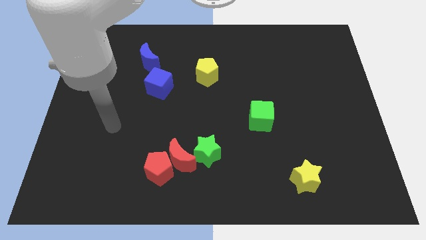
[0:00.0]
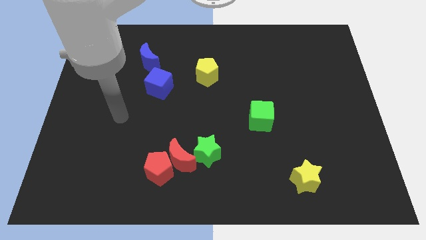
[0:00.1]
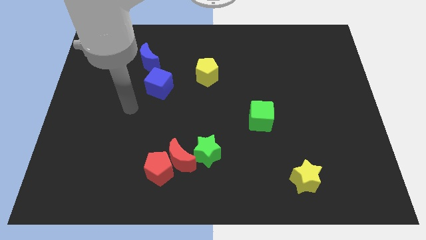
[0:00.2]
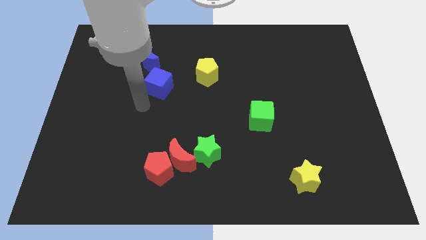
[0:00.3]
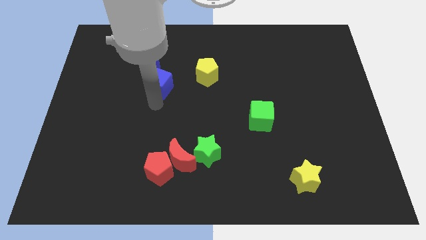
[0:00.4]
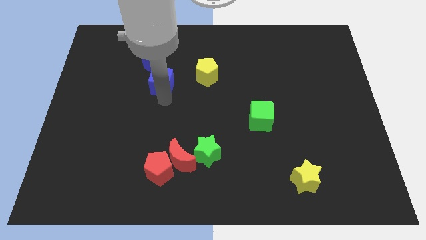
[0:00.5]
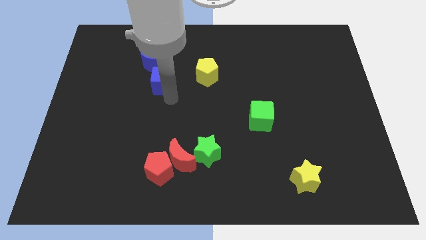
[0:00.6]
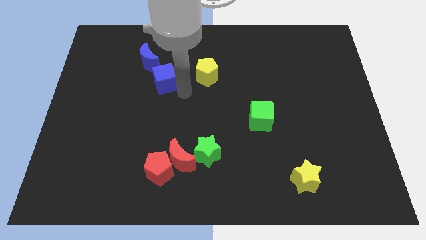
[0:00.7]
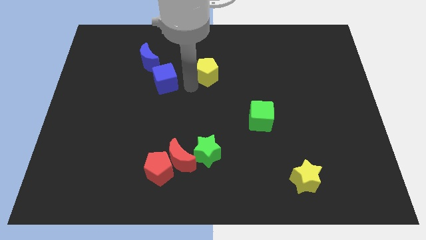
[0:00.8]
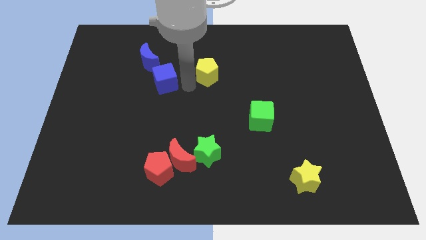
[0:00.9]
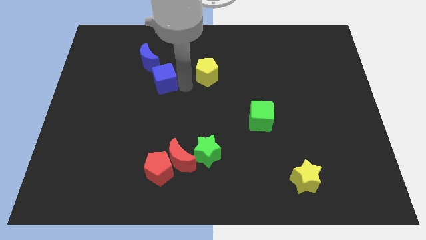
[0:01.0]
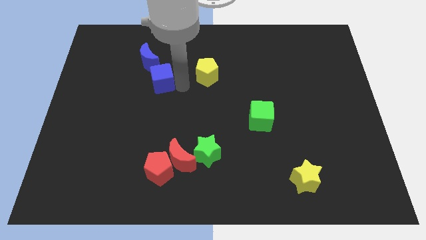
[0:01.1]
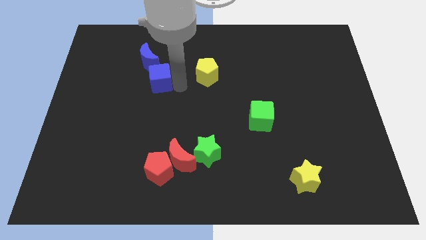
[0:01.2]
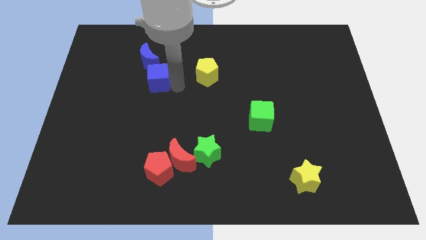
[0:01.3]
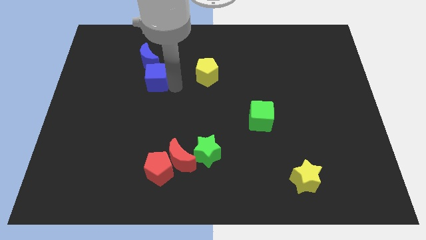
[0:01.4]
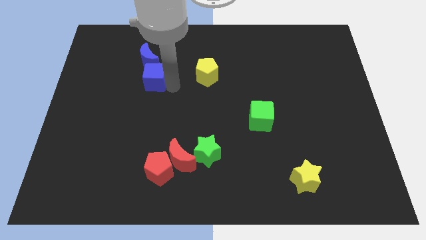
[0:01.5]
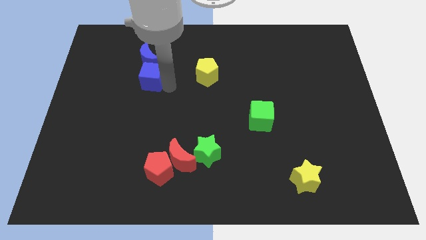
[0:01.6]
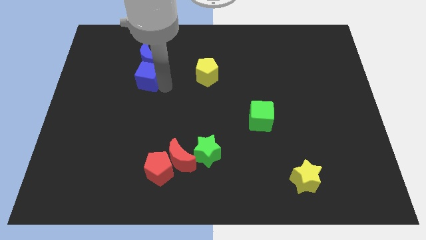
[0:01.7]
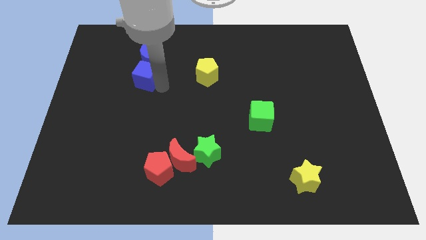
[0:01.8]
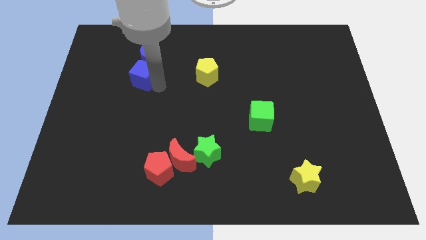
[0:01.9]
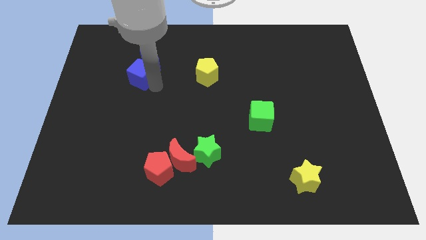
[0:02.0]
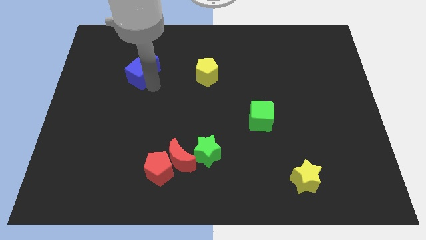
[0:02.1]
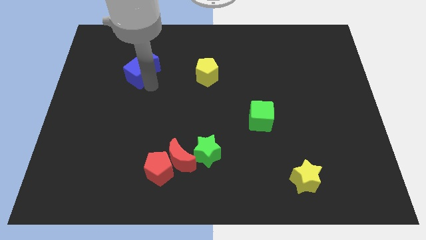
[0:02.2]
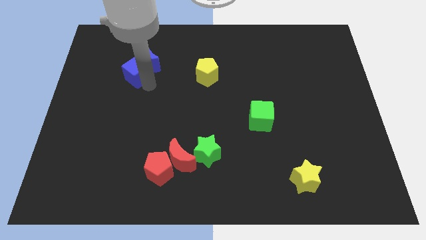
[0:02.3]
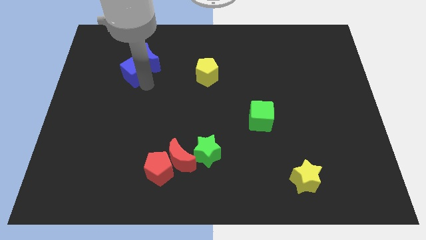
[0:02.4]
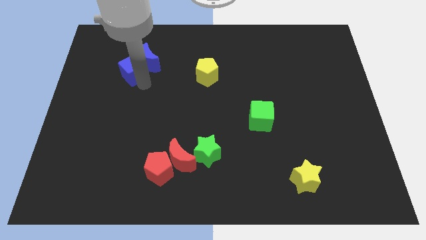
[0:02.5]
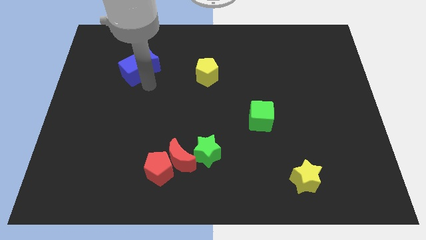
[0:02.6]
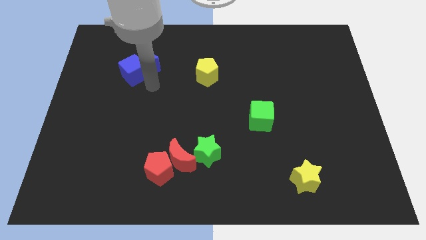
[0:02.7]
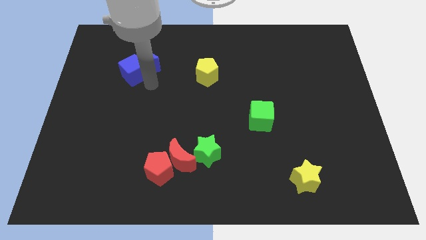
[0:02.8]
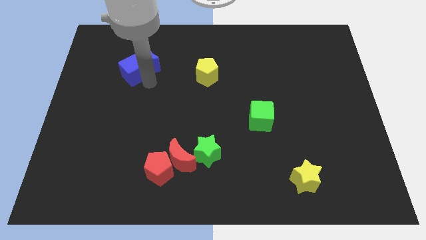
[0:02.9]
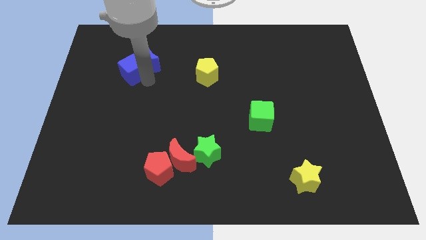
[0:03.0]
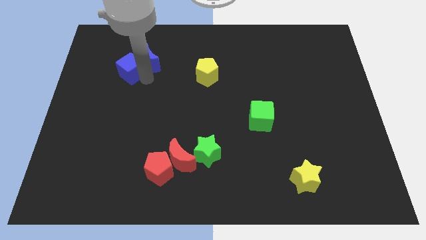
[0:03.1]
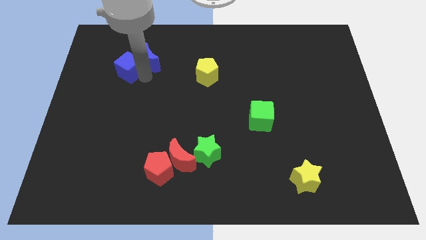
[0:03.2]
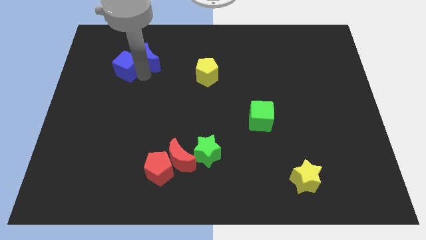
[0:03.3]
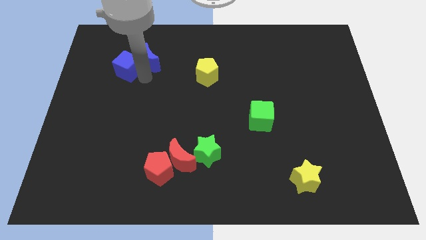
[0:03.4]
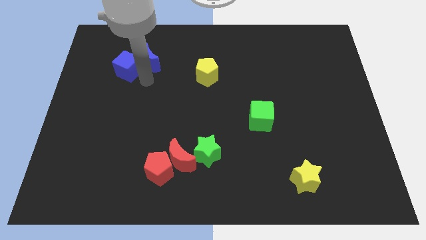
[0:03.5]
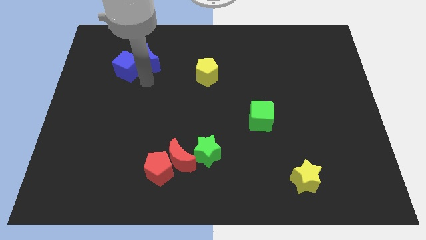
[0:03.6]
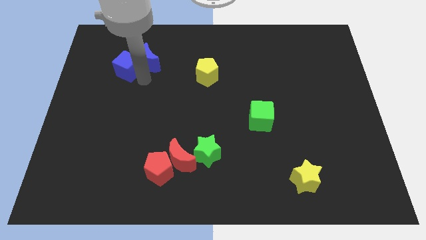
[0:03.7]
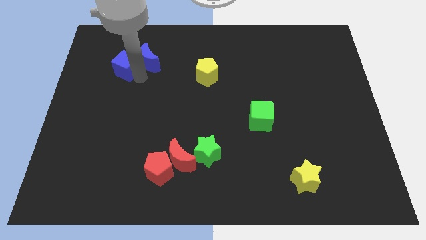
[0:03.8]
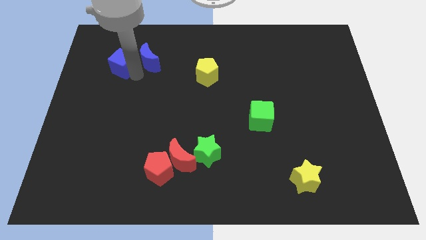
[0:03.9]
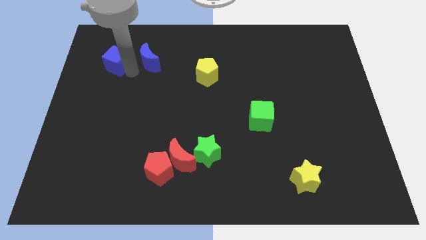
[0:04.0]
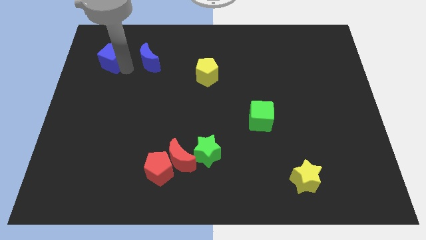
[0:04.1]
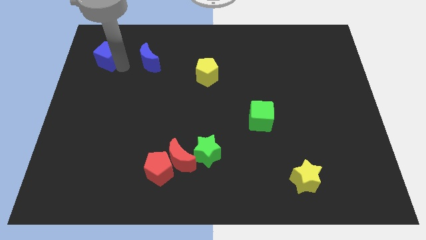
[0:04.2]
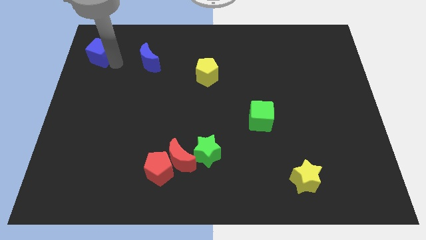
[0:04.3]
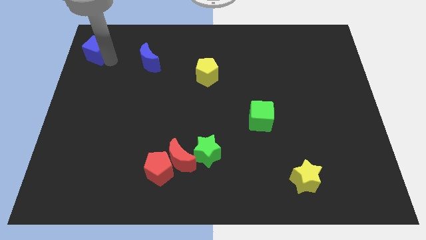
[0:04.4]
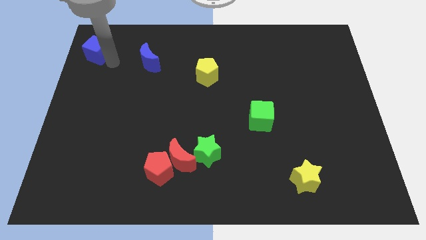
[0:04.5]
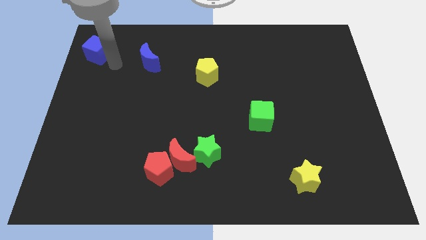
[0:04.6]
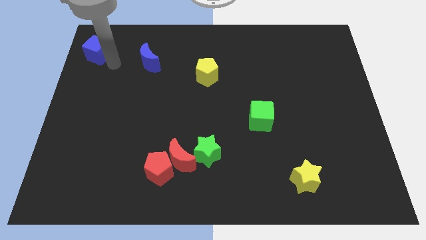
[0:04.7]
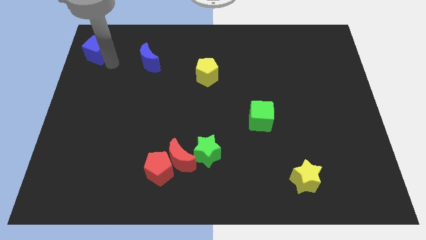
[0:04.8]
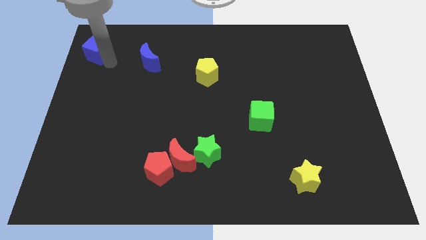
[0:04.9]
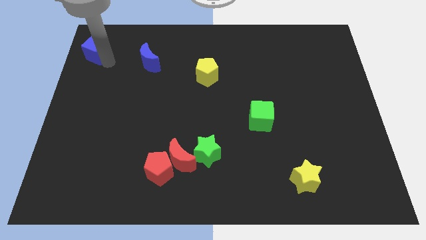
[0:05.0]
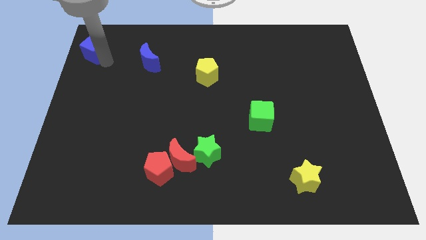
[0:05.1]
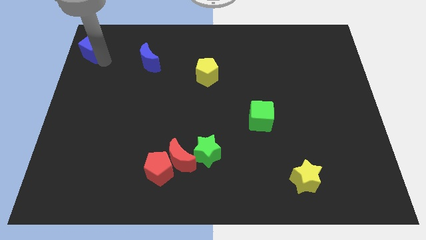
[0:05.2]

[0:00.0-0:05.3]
move the blue cube to the top left of the board

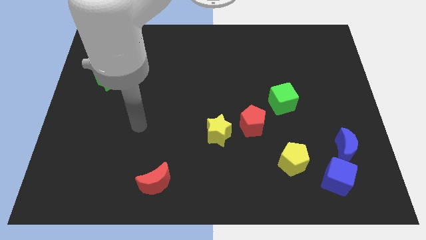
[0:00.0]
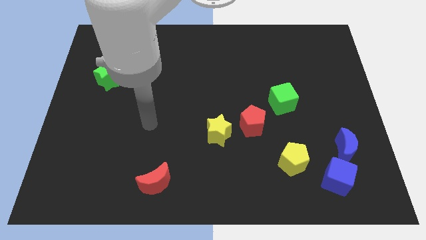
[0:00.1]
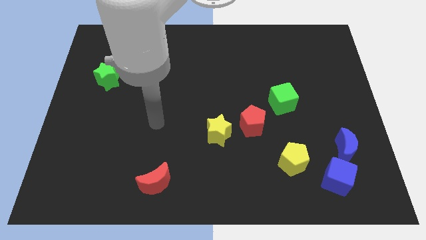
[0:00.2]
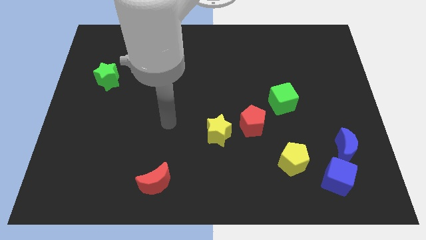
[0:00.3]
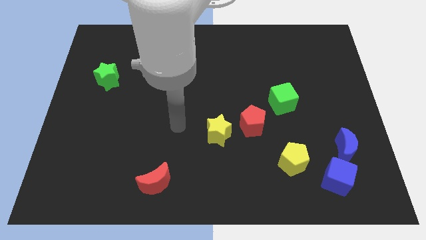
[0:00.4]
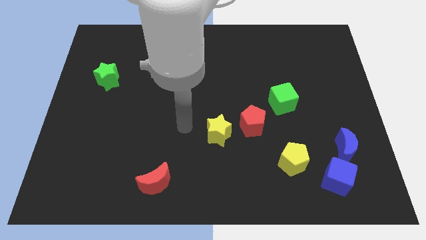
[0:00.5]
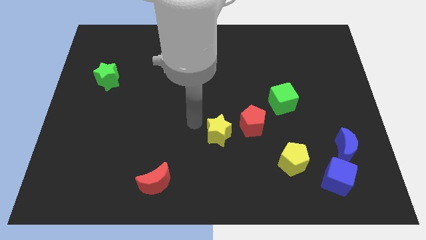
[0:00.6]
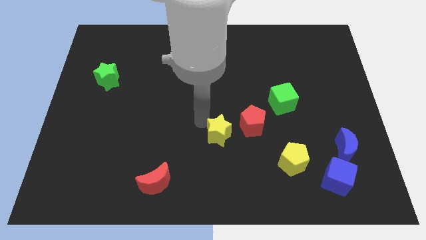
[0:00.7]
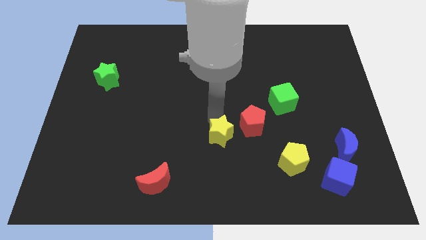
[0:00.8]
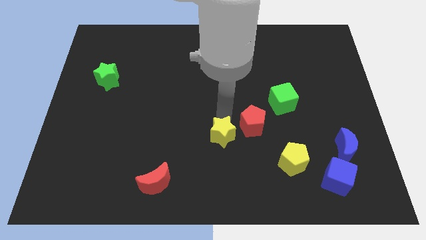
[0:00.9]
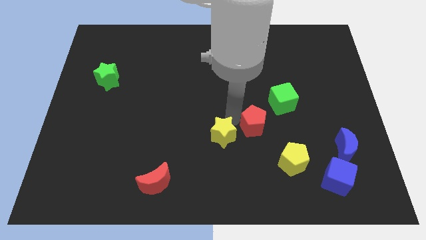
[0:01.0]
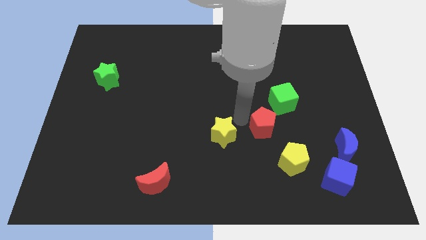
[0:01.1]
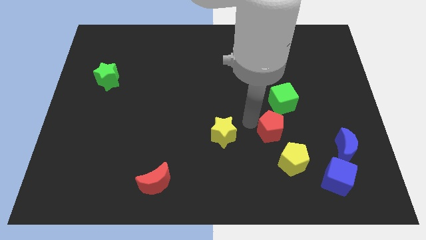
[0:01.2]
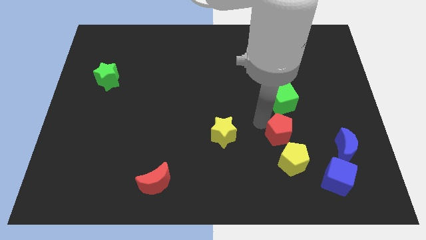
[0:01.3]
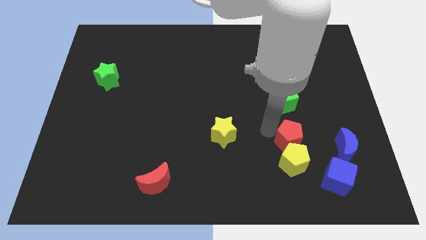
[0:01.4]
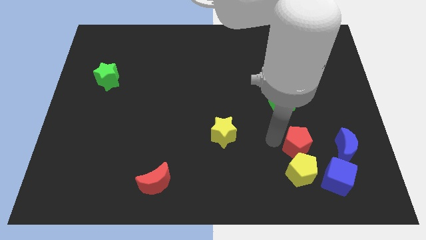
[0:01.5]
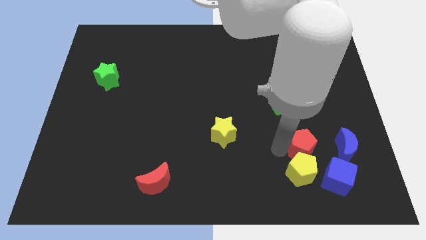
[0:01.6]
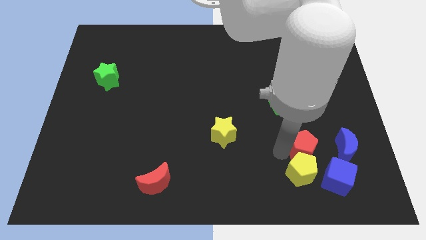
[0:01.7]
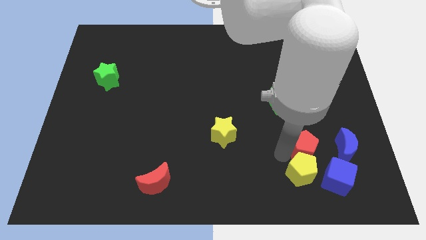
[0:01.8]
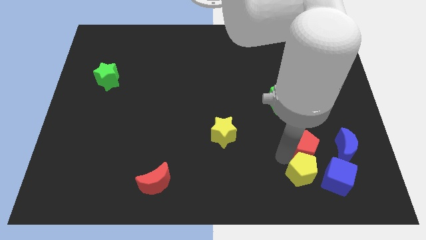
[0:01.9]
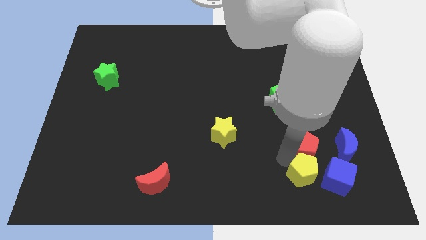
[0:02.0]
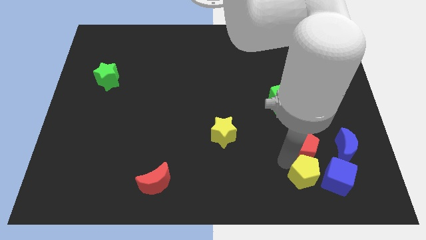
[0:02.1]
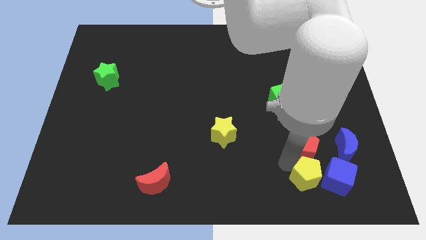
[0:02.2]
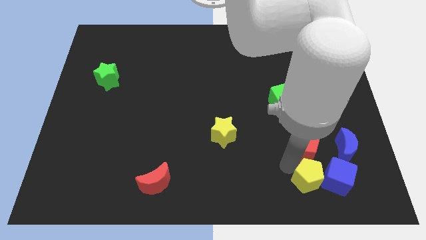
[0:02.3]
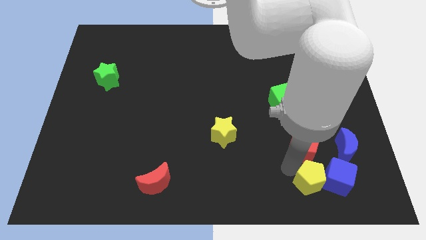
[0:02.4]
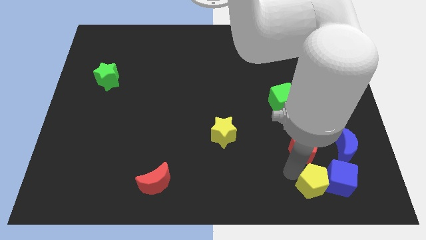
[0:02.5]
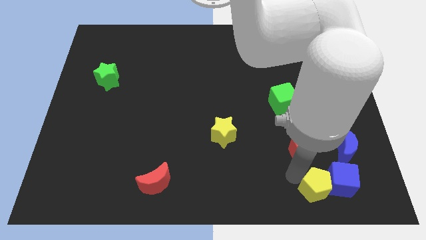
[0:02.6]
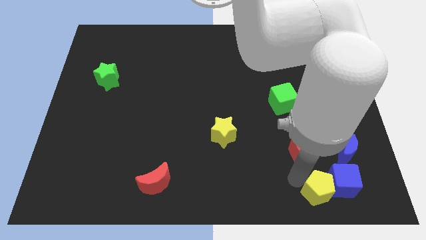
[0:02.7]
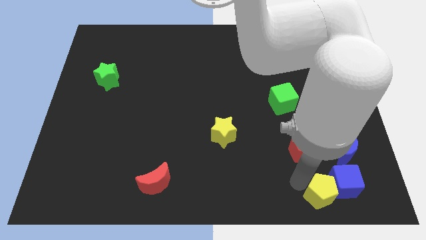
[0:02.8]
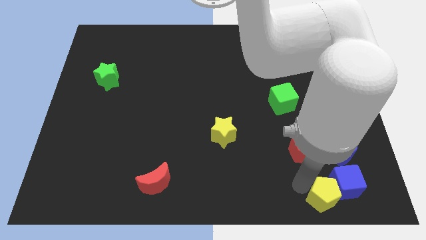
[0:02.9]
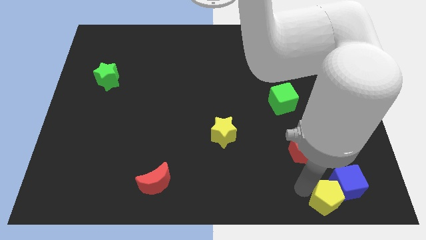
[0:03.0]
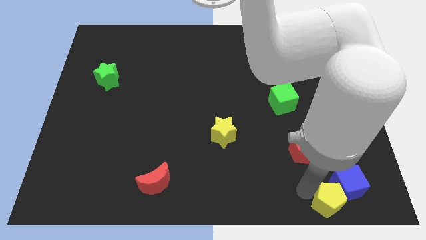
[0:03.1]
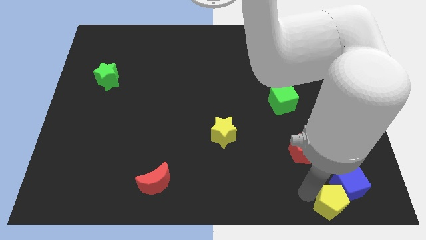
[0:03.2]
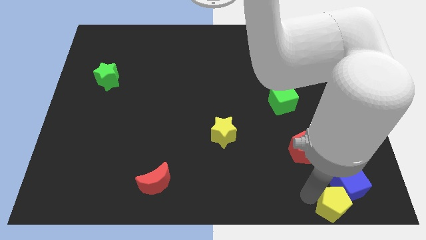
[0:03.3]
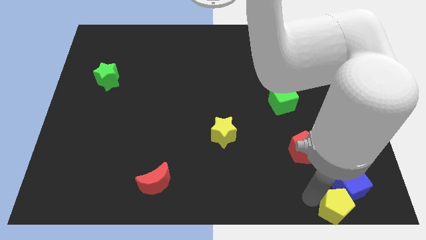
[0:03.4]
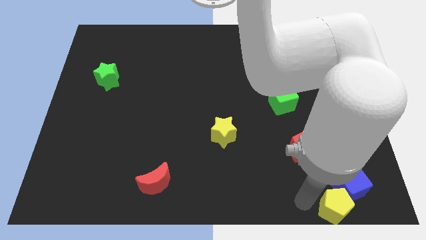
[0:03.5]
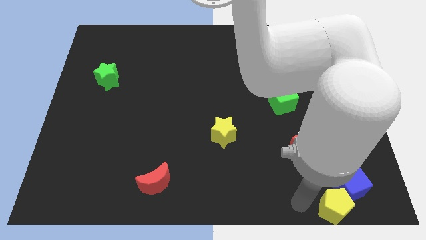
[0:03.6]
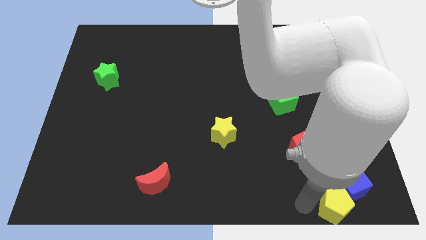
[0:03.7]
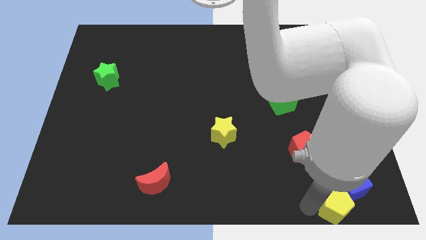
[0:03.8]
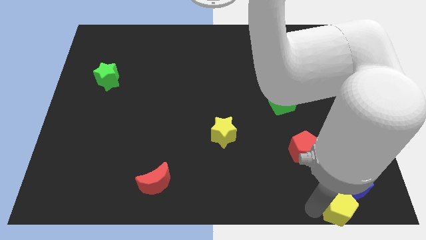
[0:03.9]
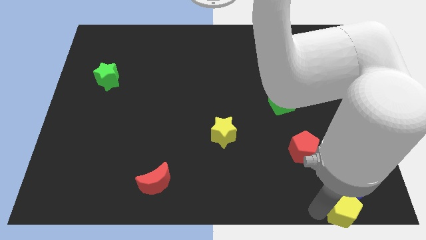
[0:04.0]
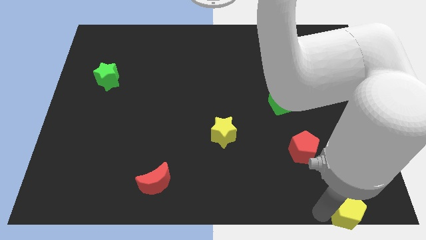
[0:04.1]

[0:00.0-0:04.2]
move the yellow pentagon to the lower right corner
